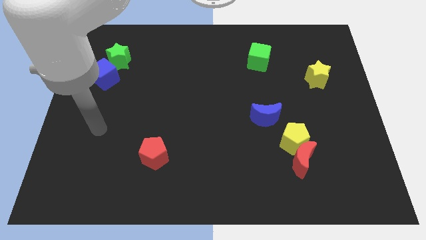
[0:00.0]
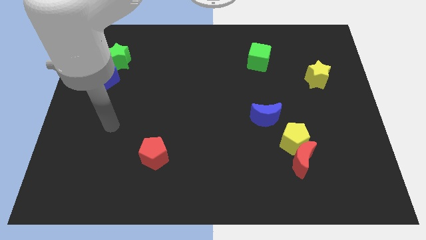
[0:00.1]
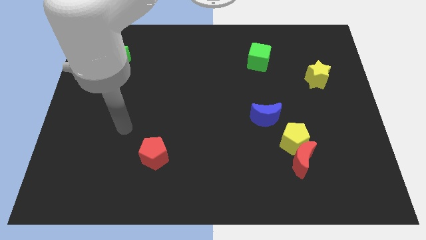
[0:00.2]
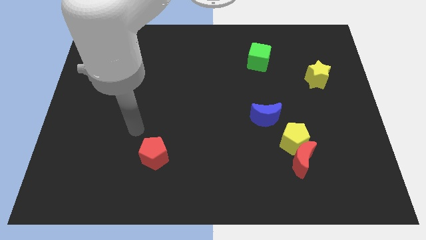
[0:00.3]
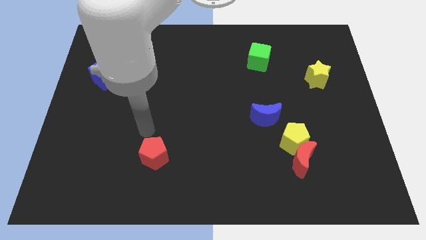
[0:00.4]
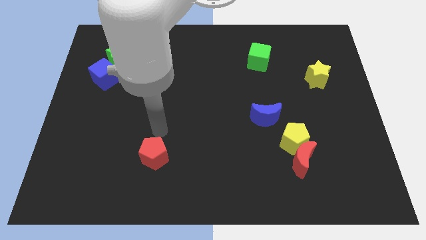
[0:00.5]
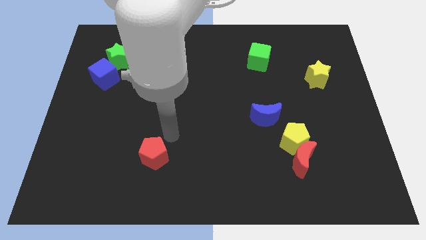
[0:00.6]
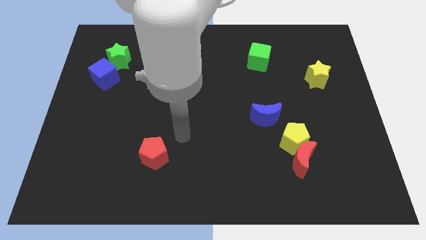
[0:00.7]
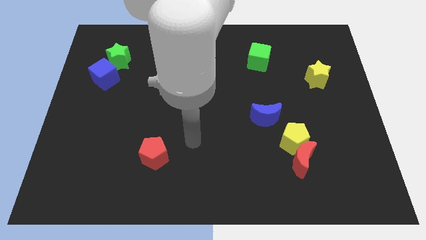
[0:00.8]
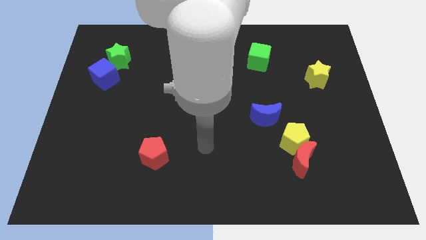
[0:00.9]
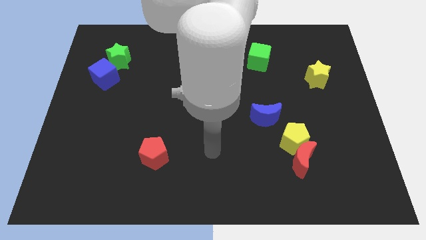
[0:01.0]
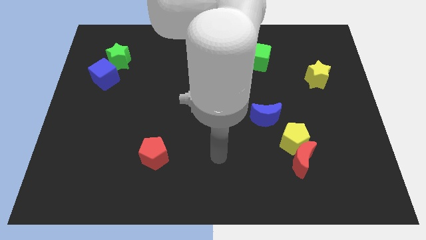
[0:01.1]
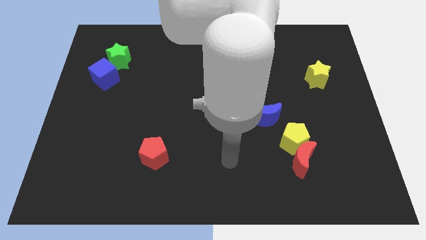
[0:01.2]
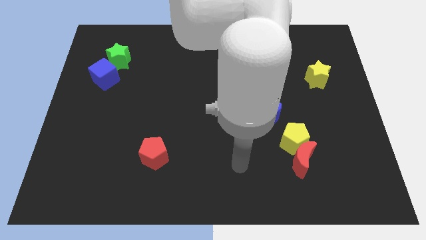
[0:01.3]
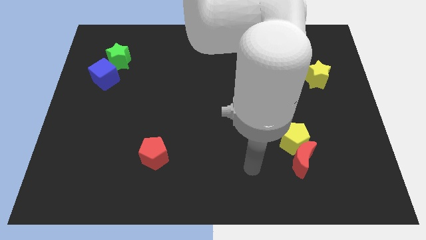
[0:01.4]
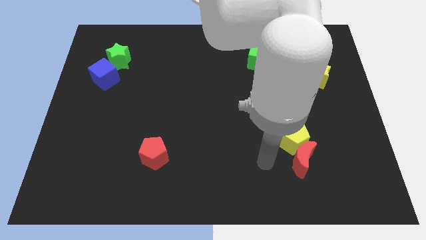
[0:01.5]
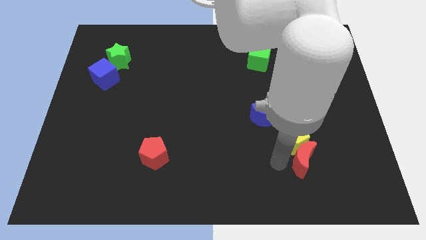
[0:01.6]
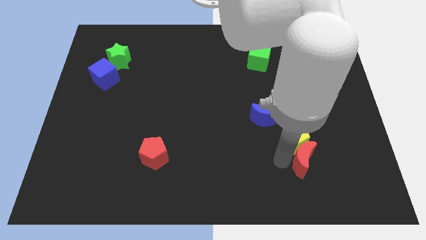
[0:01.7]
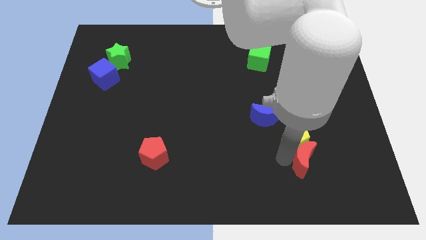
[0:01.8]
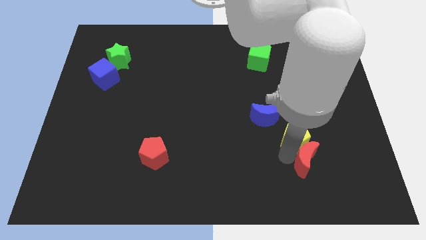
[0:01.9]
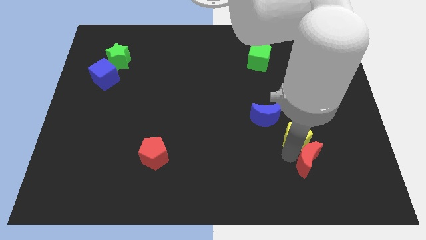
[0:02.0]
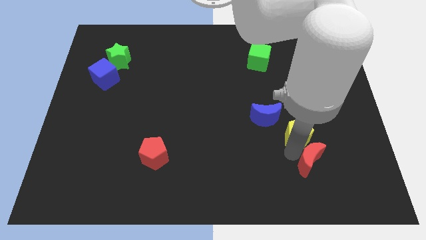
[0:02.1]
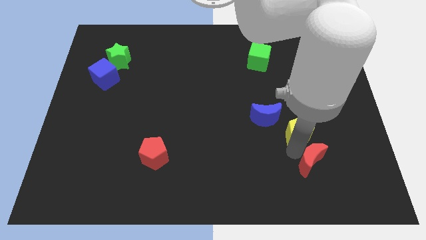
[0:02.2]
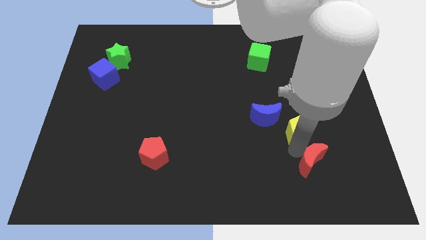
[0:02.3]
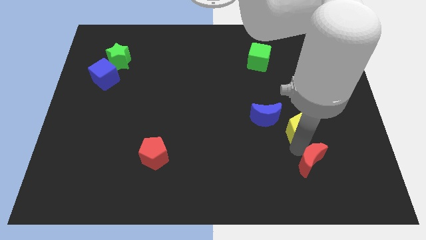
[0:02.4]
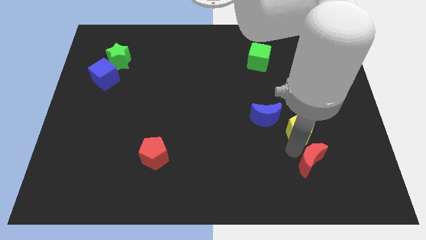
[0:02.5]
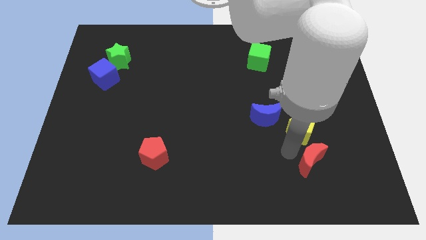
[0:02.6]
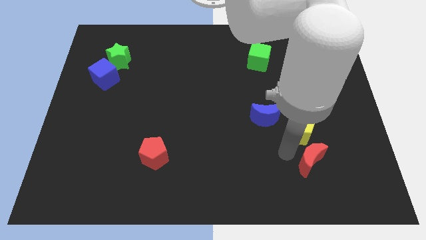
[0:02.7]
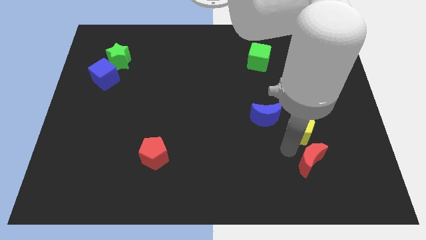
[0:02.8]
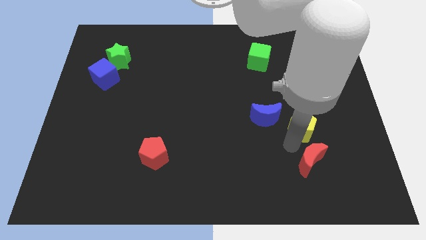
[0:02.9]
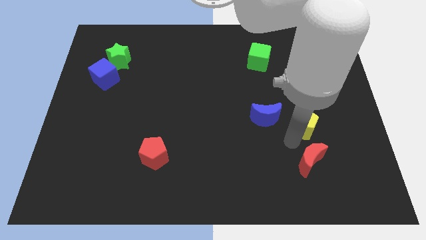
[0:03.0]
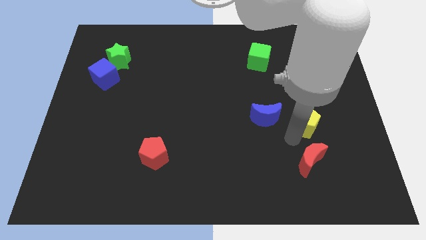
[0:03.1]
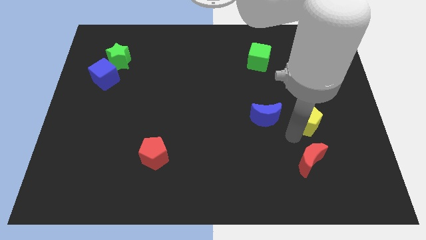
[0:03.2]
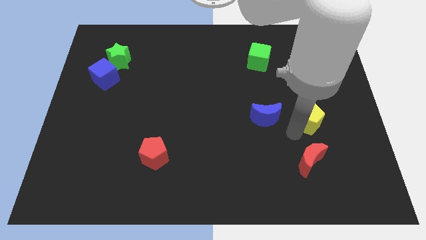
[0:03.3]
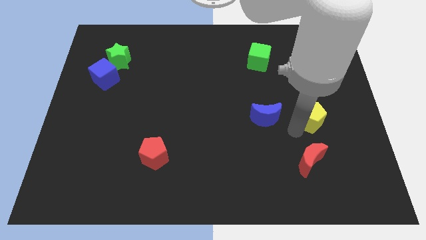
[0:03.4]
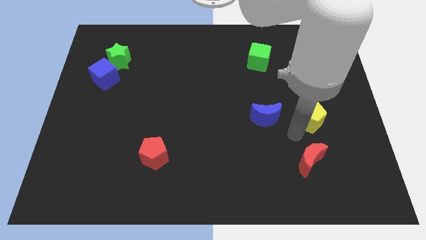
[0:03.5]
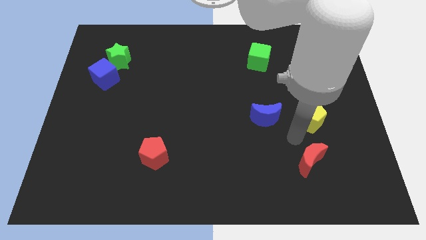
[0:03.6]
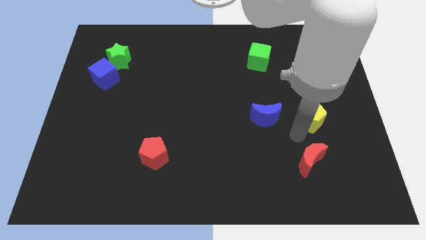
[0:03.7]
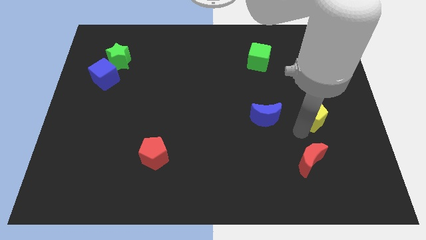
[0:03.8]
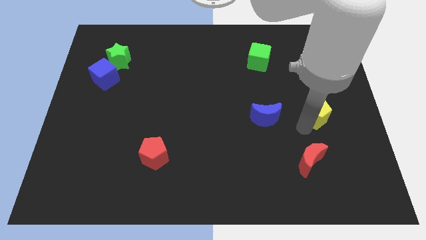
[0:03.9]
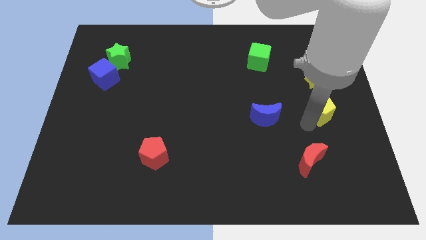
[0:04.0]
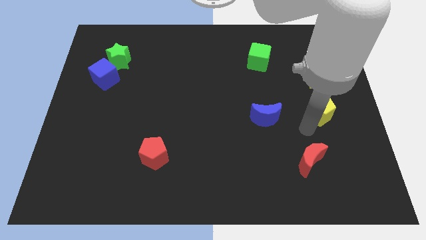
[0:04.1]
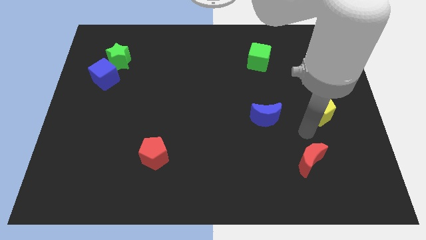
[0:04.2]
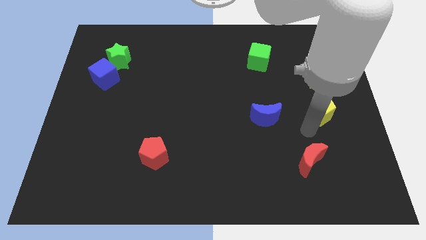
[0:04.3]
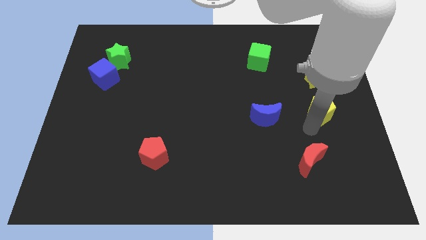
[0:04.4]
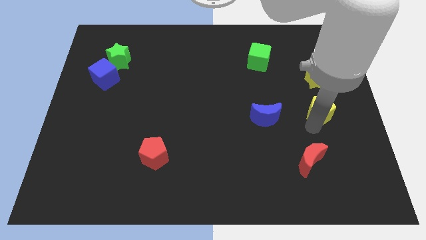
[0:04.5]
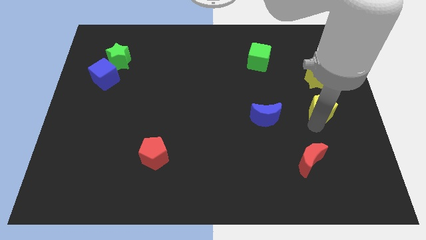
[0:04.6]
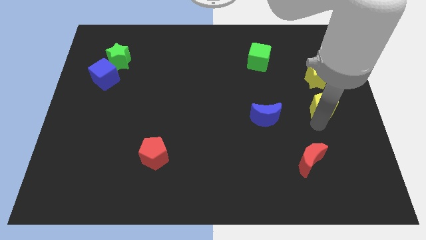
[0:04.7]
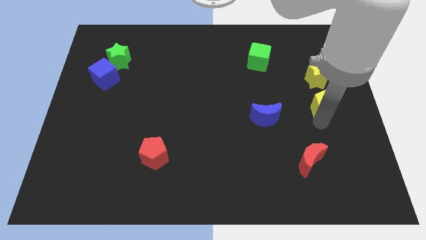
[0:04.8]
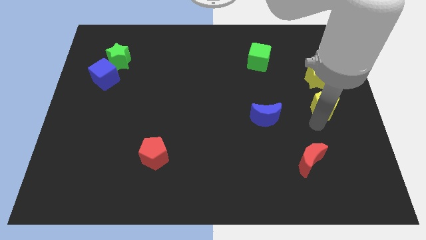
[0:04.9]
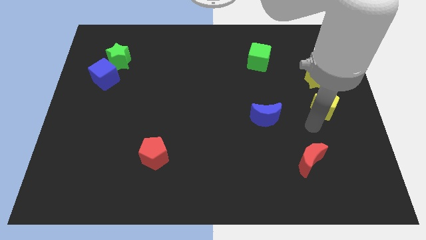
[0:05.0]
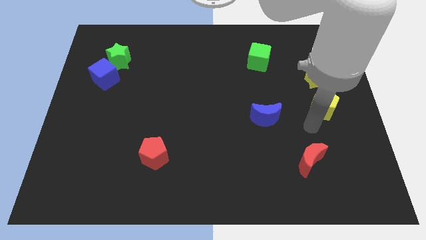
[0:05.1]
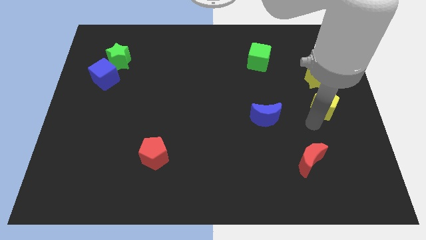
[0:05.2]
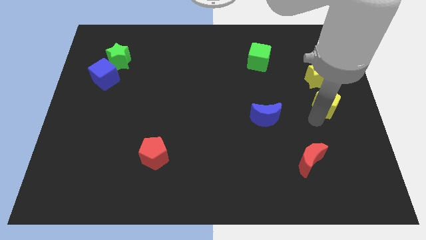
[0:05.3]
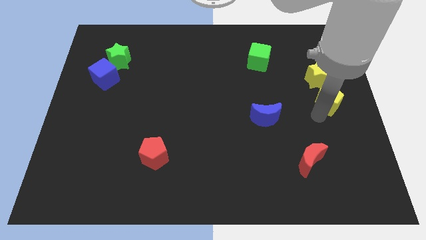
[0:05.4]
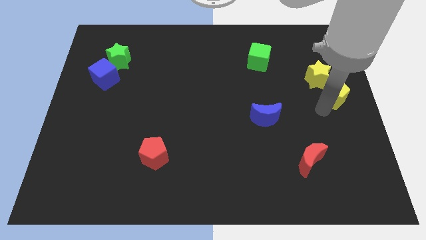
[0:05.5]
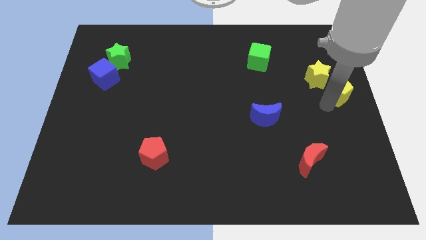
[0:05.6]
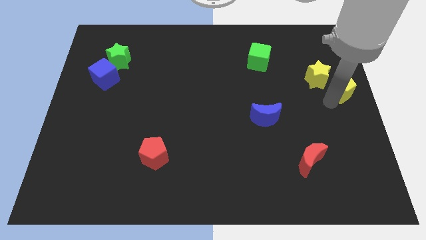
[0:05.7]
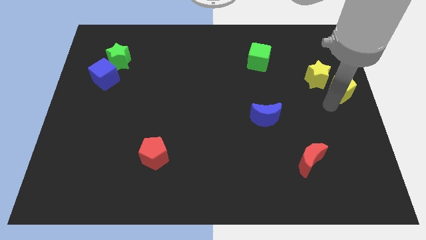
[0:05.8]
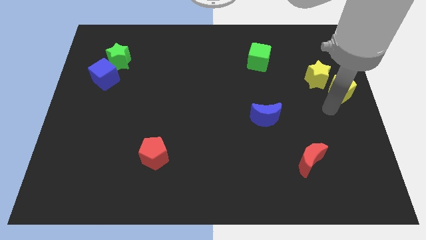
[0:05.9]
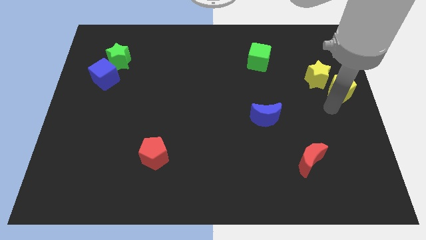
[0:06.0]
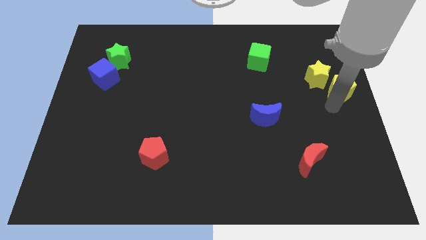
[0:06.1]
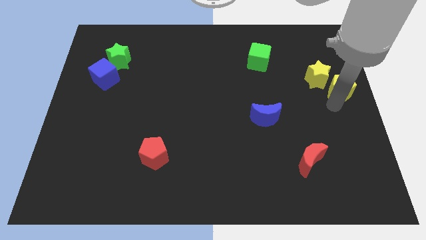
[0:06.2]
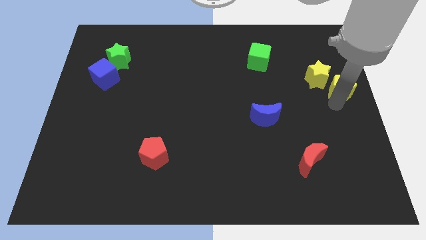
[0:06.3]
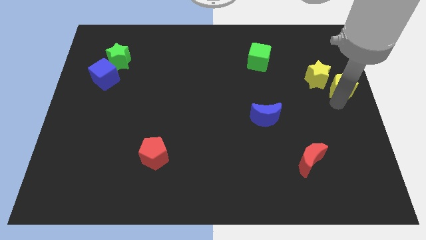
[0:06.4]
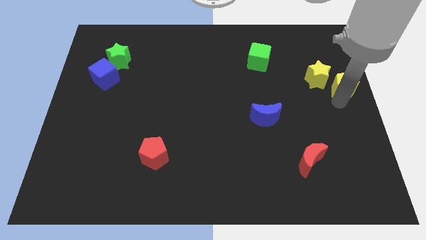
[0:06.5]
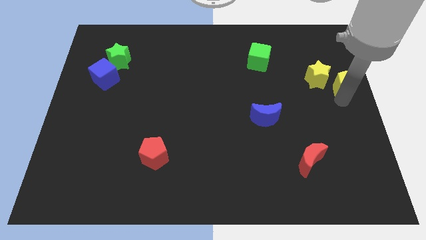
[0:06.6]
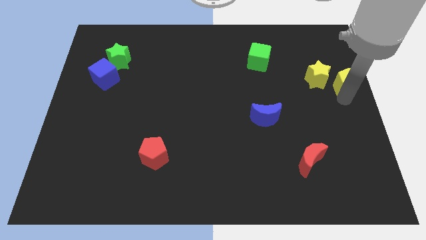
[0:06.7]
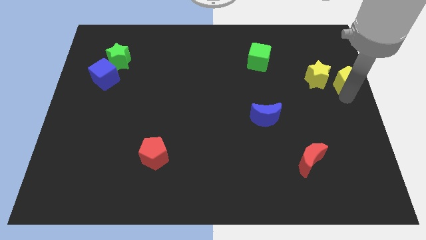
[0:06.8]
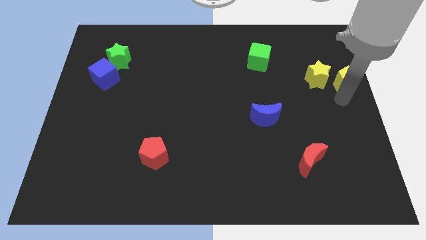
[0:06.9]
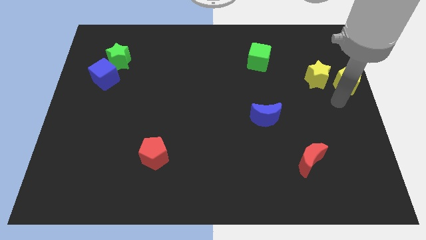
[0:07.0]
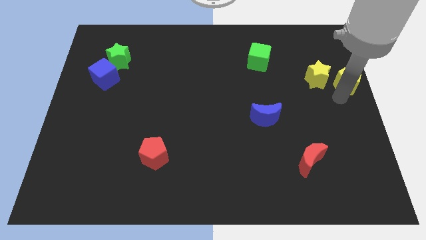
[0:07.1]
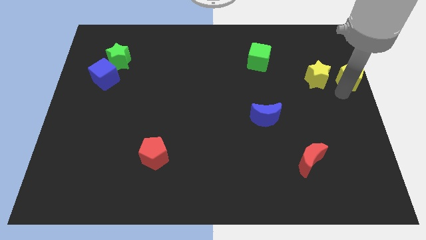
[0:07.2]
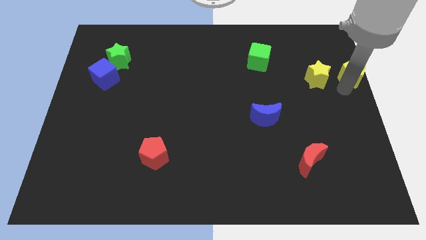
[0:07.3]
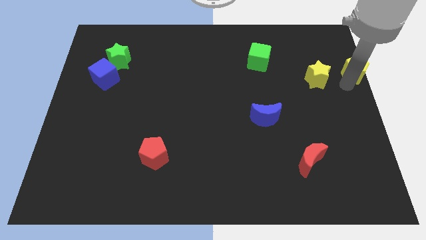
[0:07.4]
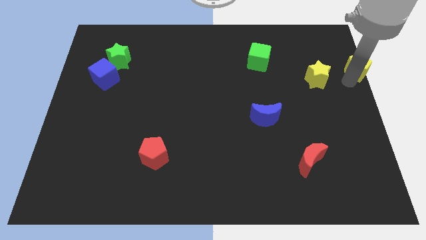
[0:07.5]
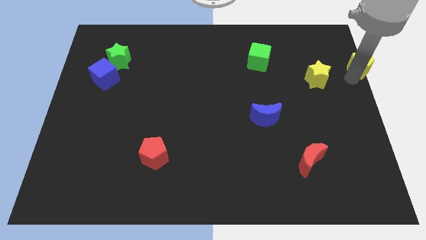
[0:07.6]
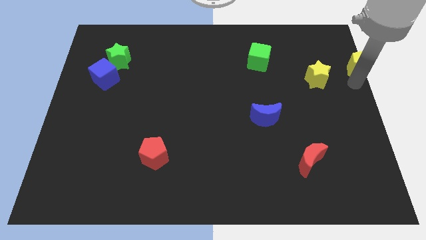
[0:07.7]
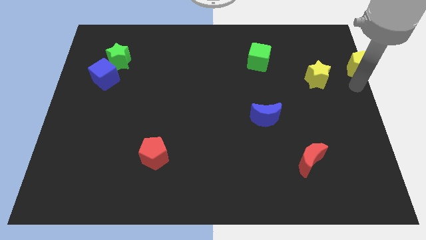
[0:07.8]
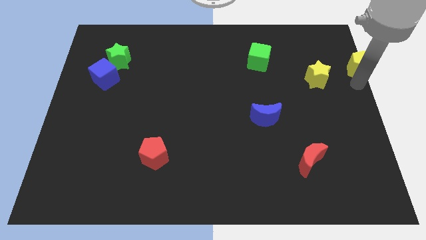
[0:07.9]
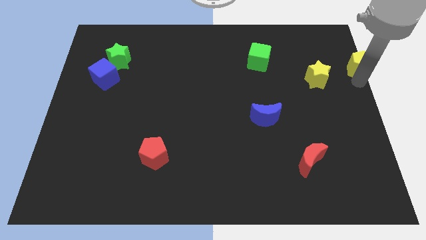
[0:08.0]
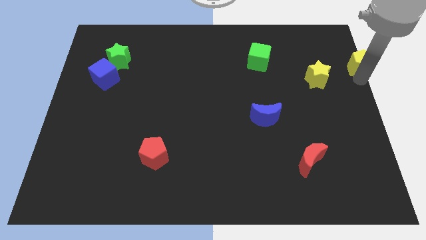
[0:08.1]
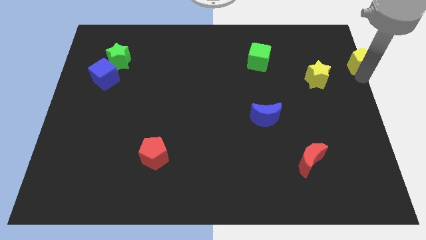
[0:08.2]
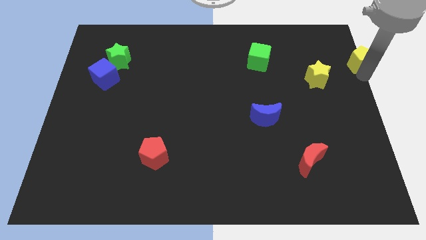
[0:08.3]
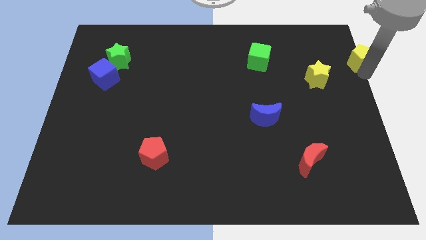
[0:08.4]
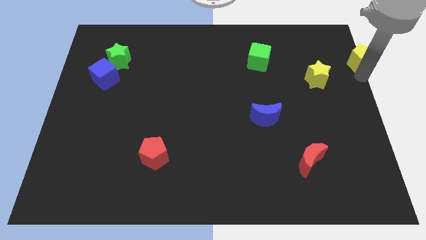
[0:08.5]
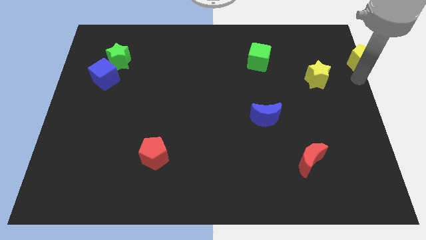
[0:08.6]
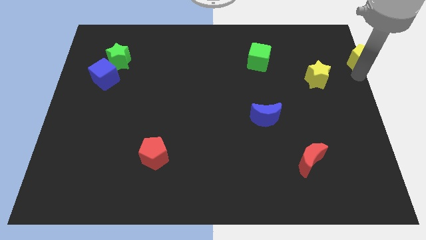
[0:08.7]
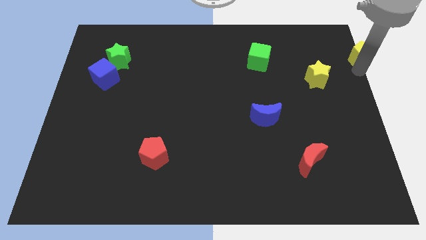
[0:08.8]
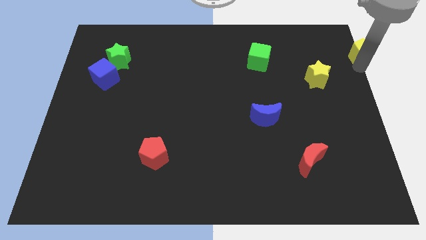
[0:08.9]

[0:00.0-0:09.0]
push the yellow pentagon to the top right of the board
